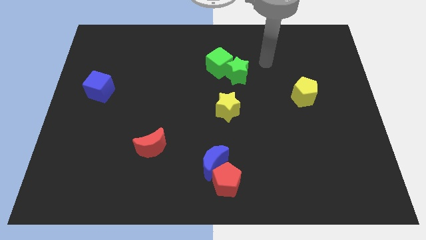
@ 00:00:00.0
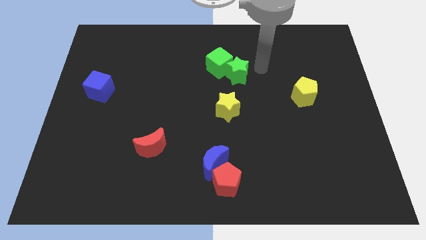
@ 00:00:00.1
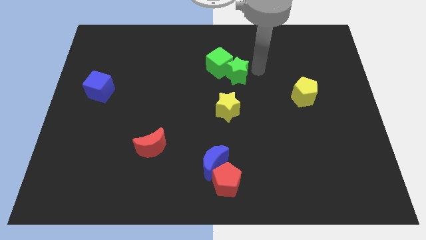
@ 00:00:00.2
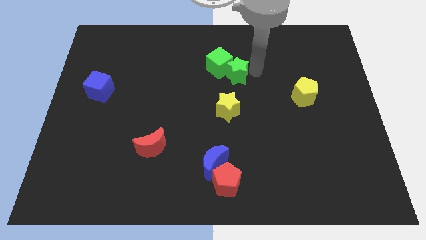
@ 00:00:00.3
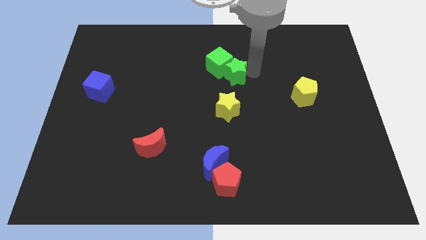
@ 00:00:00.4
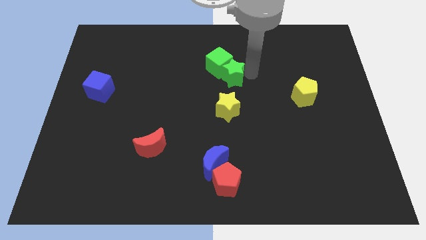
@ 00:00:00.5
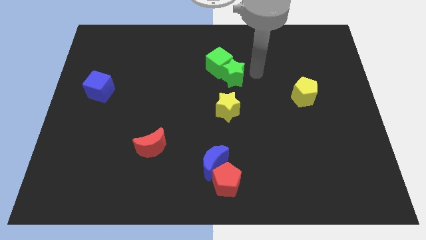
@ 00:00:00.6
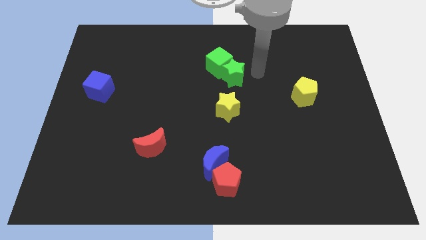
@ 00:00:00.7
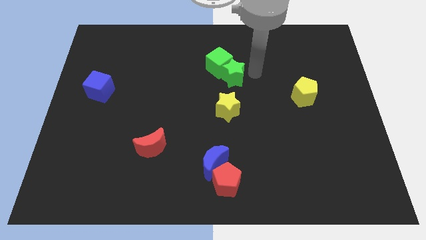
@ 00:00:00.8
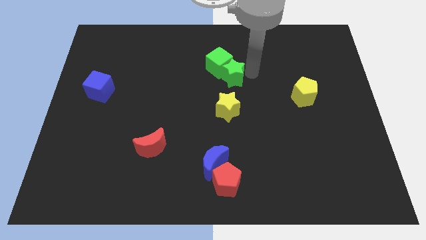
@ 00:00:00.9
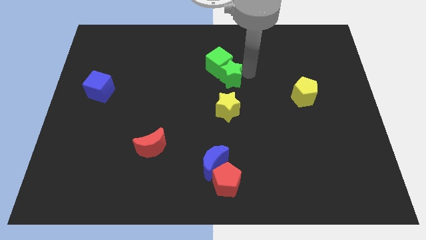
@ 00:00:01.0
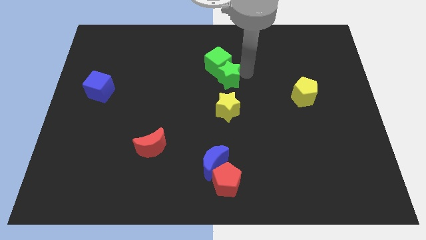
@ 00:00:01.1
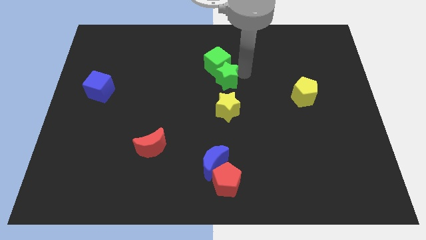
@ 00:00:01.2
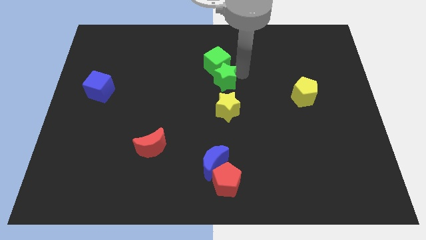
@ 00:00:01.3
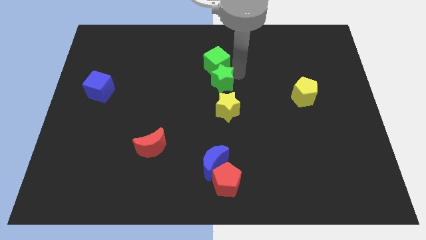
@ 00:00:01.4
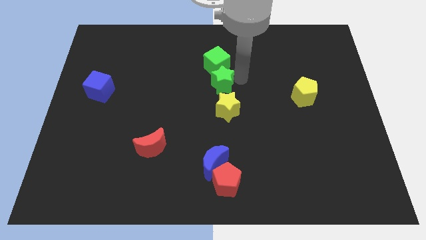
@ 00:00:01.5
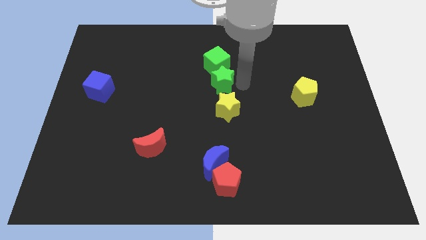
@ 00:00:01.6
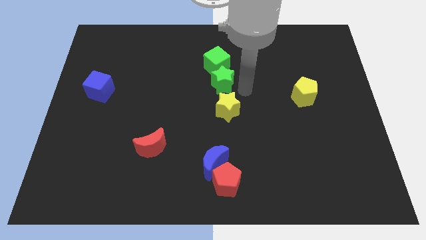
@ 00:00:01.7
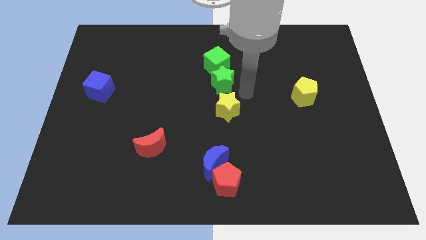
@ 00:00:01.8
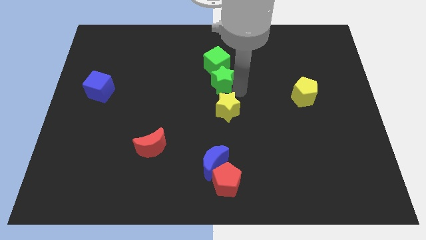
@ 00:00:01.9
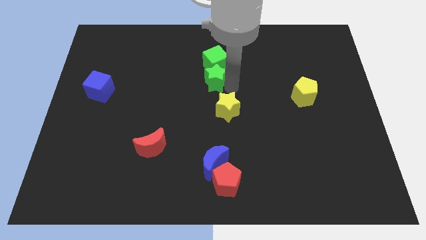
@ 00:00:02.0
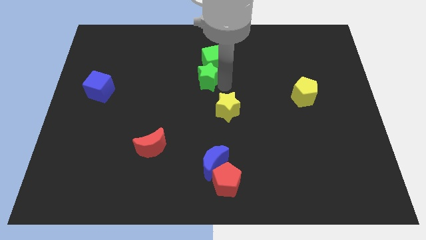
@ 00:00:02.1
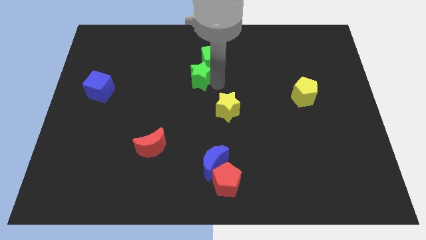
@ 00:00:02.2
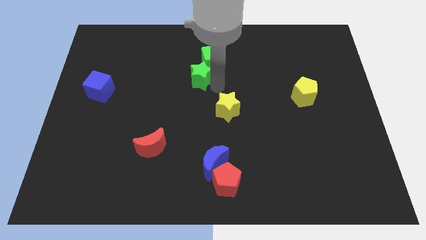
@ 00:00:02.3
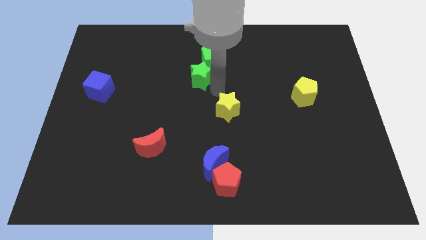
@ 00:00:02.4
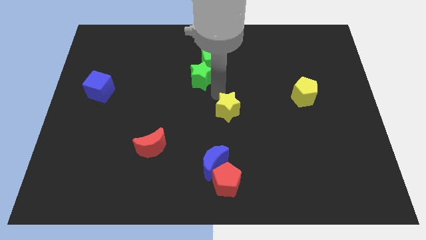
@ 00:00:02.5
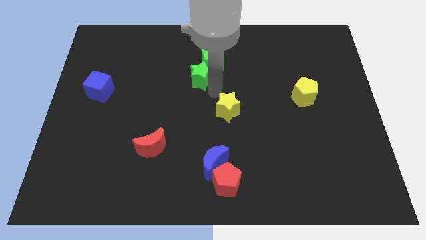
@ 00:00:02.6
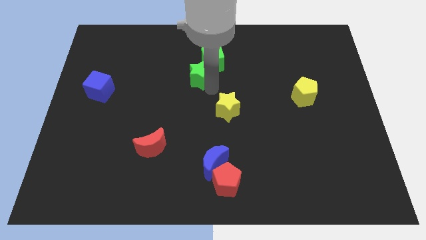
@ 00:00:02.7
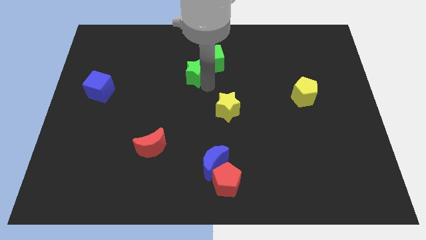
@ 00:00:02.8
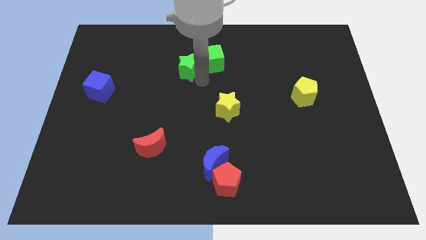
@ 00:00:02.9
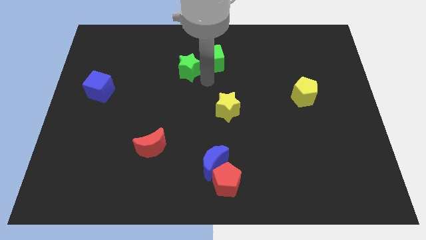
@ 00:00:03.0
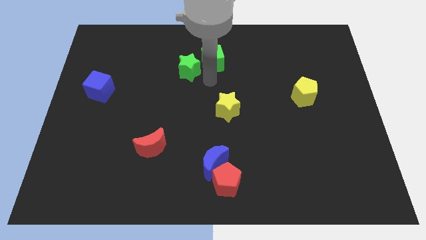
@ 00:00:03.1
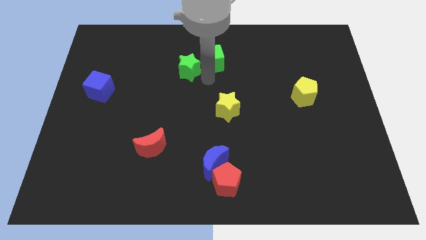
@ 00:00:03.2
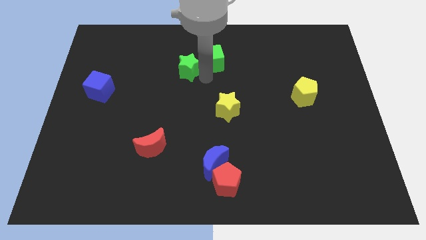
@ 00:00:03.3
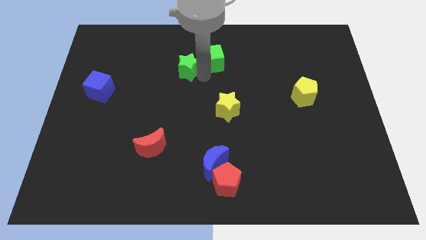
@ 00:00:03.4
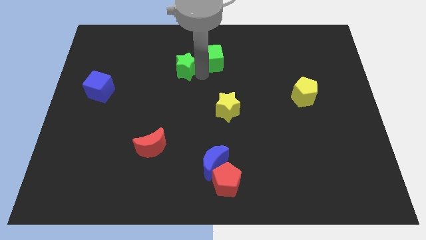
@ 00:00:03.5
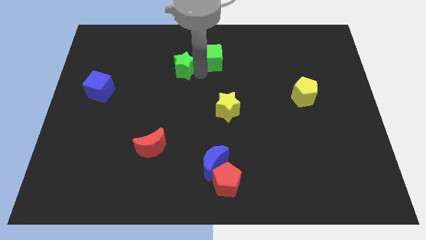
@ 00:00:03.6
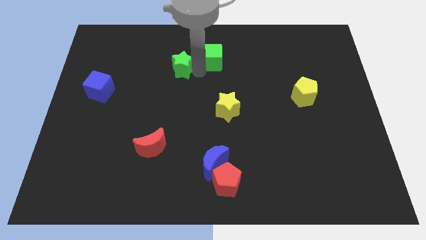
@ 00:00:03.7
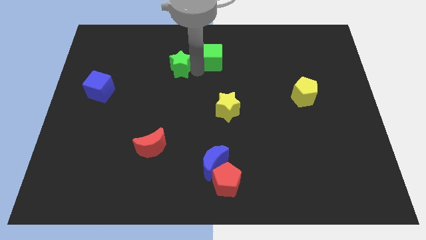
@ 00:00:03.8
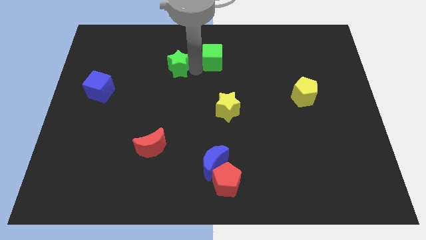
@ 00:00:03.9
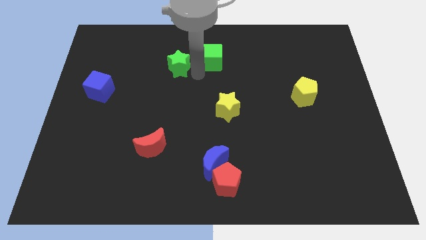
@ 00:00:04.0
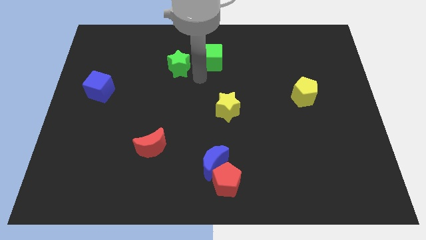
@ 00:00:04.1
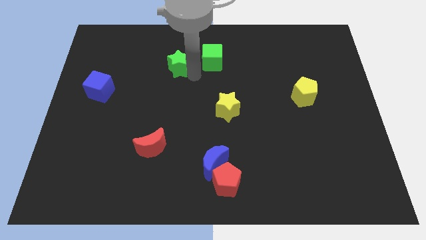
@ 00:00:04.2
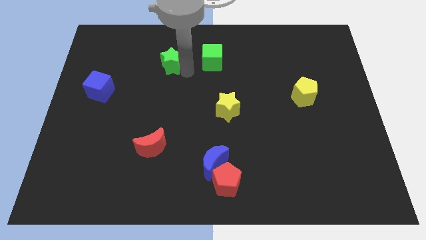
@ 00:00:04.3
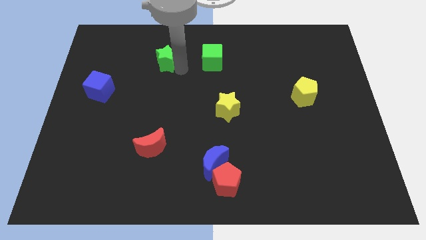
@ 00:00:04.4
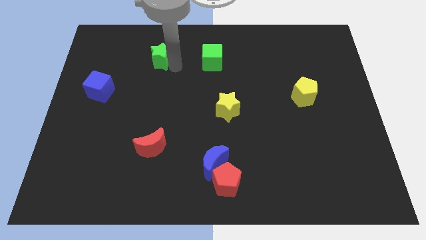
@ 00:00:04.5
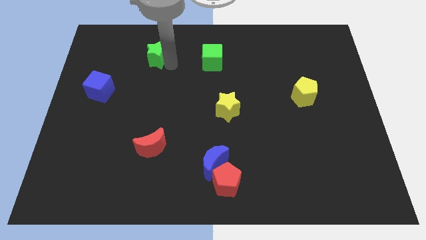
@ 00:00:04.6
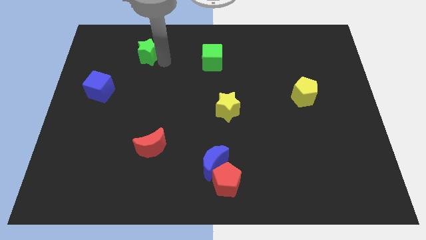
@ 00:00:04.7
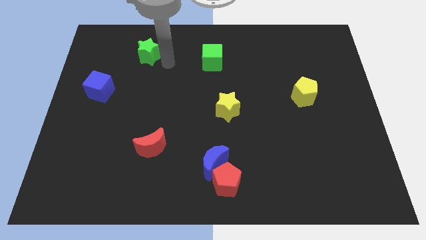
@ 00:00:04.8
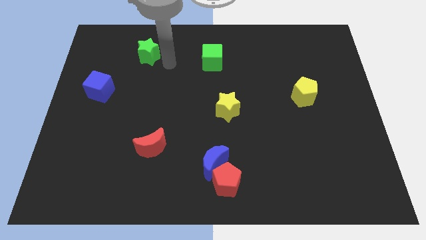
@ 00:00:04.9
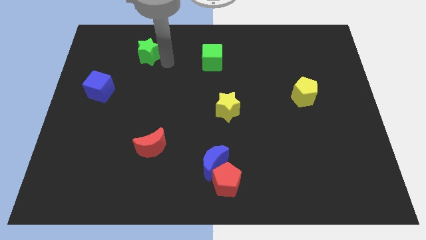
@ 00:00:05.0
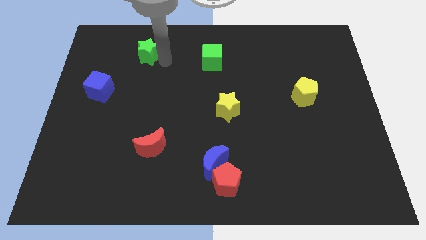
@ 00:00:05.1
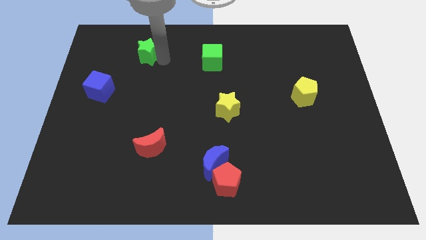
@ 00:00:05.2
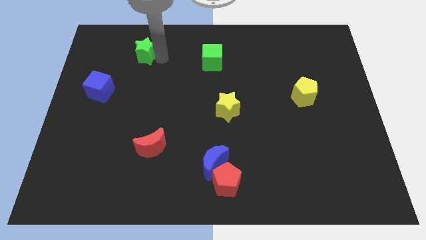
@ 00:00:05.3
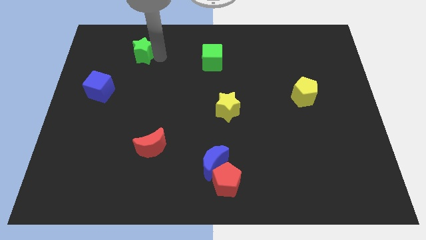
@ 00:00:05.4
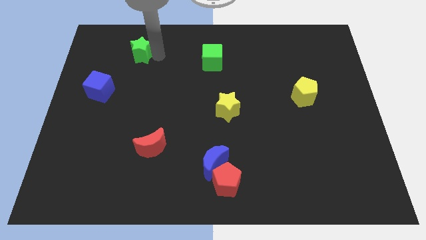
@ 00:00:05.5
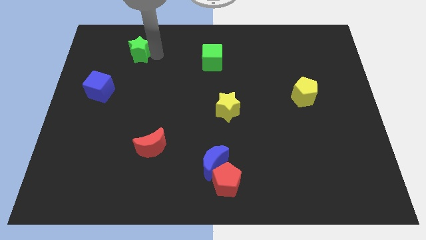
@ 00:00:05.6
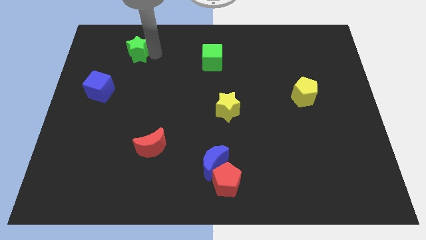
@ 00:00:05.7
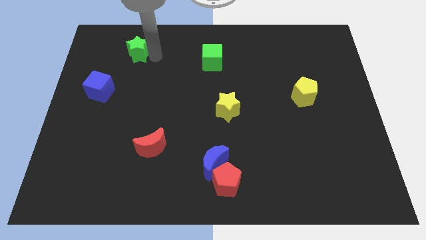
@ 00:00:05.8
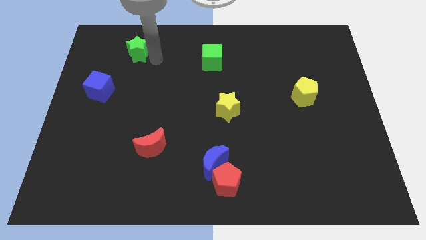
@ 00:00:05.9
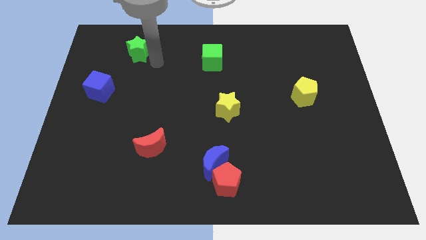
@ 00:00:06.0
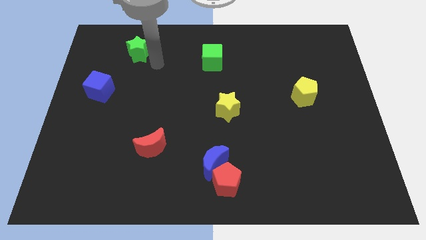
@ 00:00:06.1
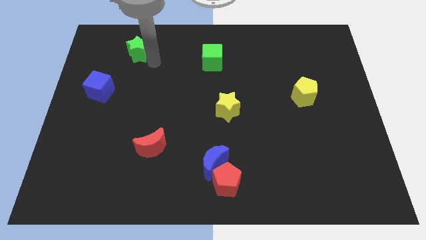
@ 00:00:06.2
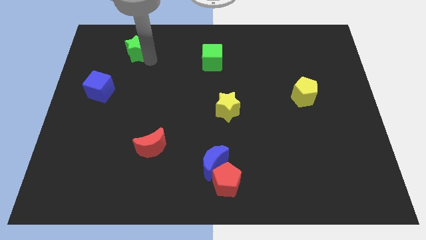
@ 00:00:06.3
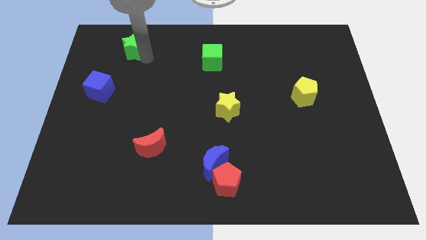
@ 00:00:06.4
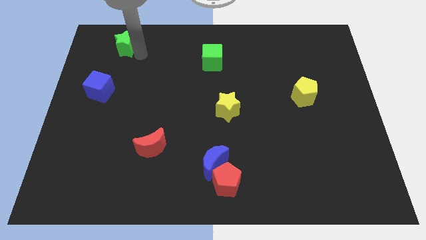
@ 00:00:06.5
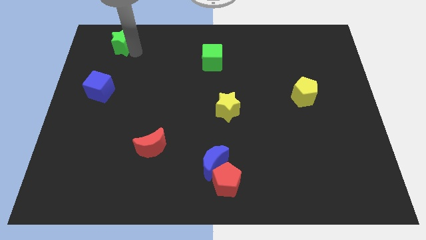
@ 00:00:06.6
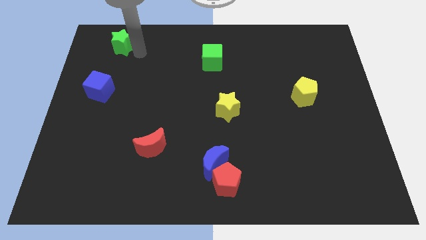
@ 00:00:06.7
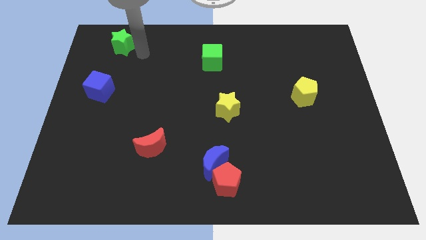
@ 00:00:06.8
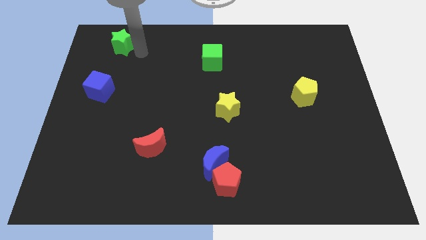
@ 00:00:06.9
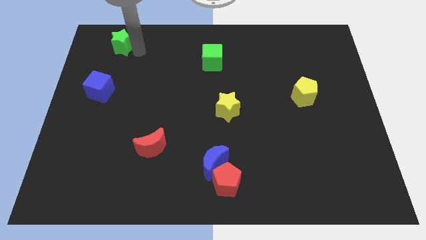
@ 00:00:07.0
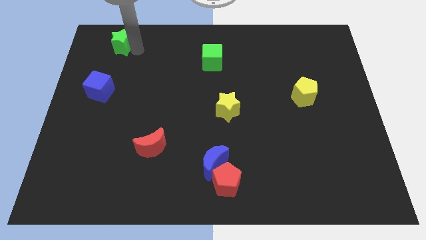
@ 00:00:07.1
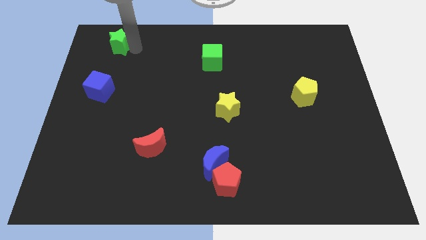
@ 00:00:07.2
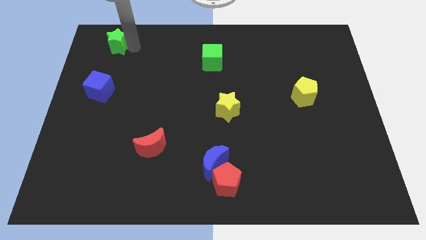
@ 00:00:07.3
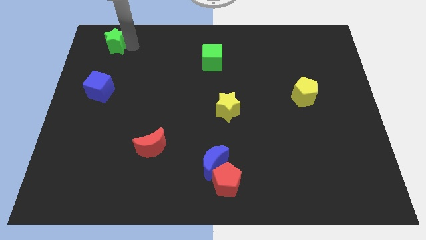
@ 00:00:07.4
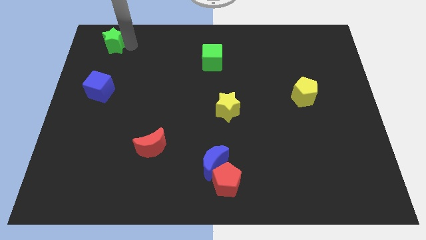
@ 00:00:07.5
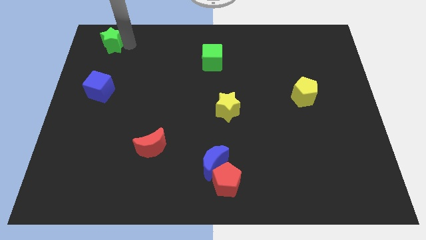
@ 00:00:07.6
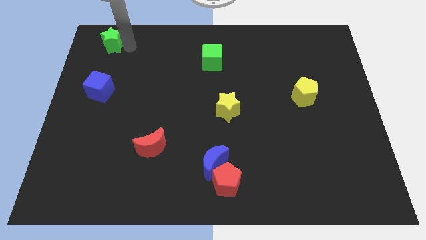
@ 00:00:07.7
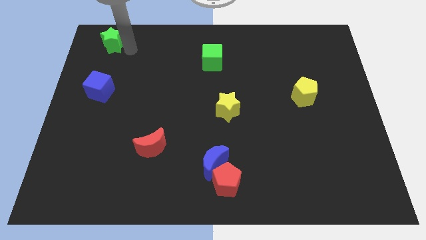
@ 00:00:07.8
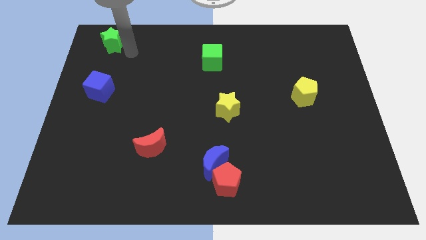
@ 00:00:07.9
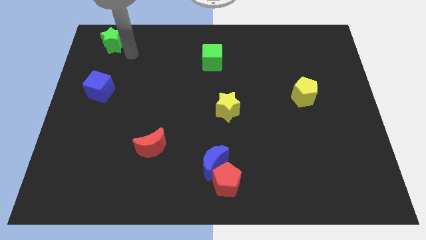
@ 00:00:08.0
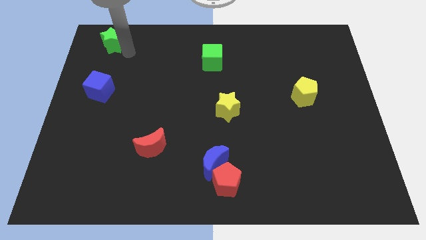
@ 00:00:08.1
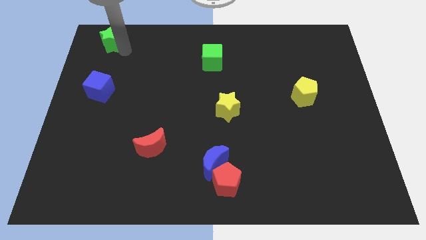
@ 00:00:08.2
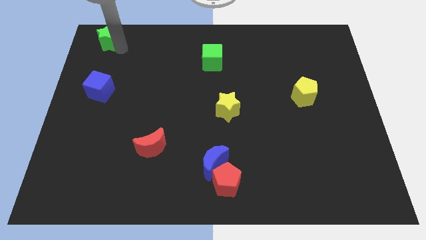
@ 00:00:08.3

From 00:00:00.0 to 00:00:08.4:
put the green star to the upper left corner
